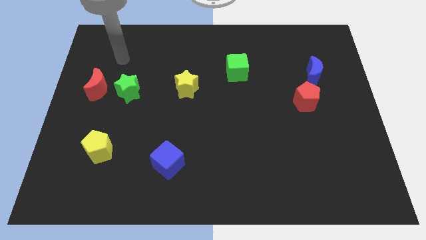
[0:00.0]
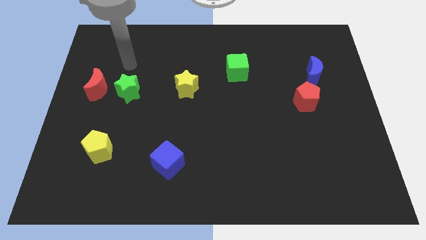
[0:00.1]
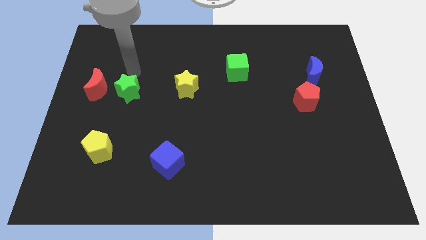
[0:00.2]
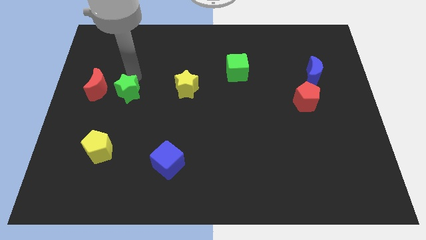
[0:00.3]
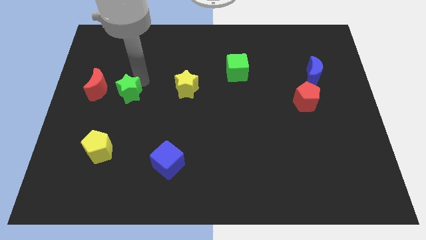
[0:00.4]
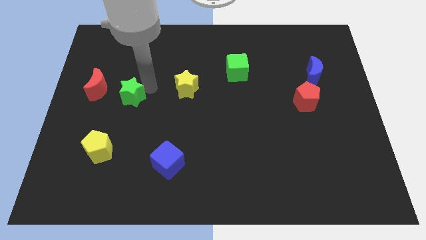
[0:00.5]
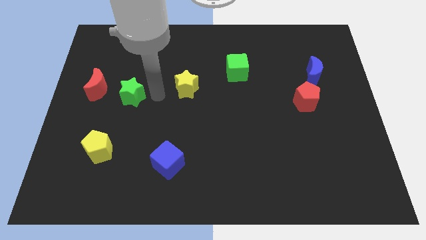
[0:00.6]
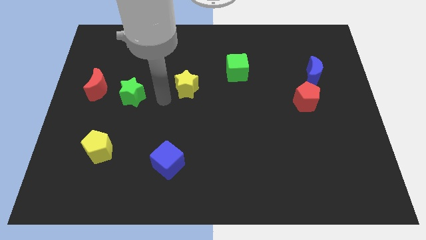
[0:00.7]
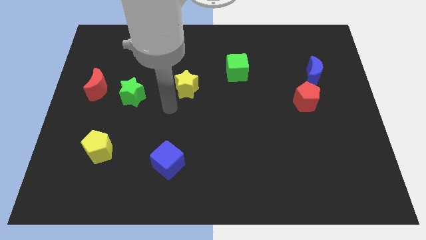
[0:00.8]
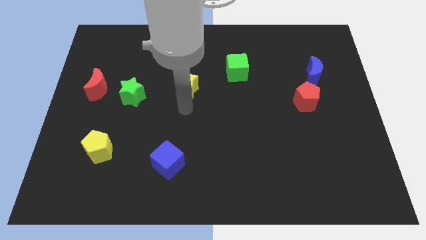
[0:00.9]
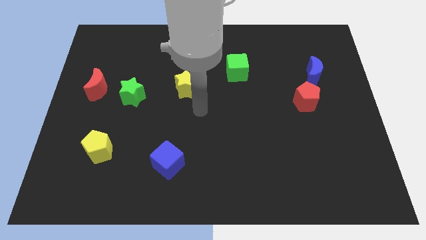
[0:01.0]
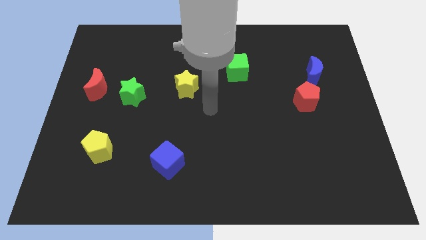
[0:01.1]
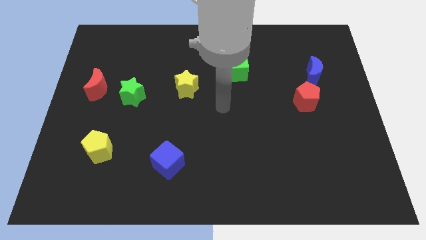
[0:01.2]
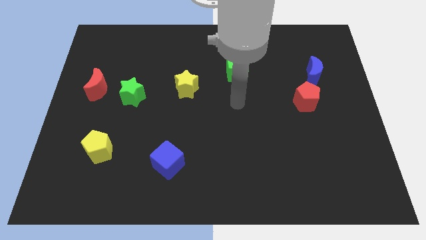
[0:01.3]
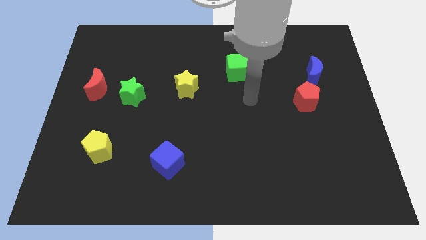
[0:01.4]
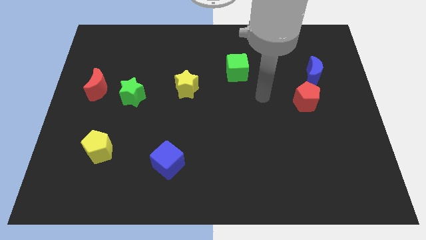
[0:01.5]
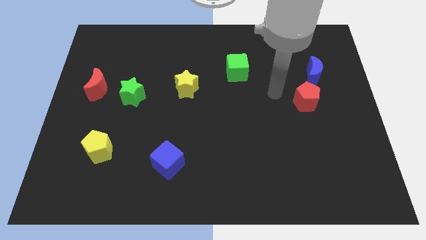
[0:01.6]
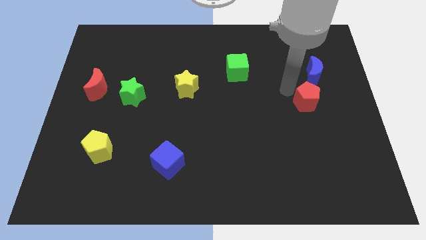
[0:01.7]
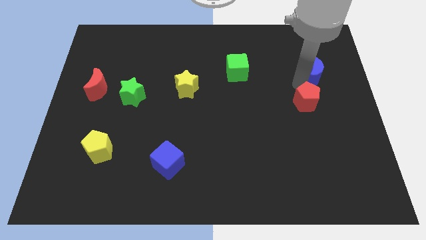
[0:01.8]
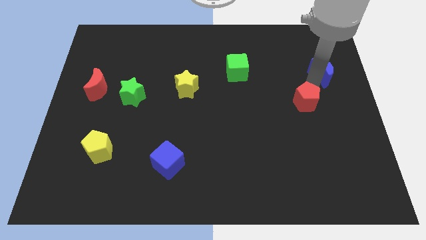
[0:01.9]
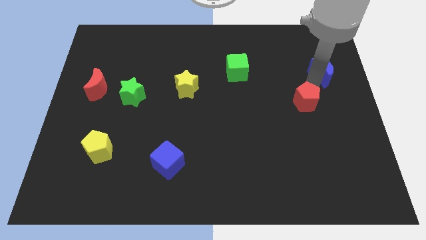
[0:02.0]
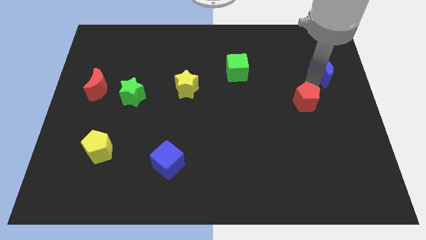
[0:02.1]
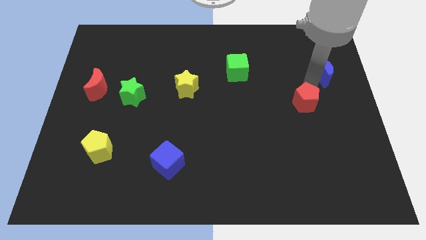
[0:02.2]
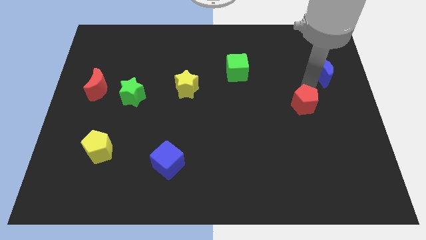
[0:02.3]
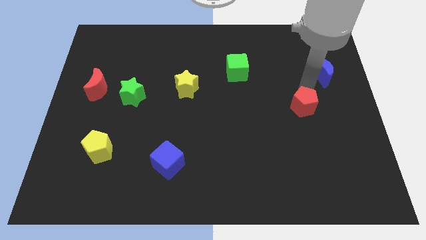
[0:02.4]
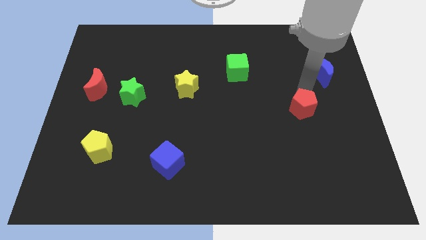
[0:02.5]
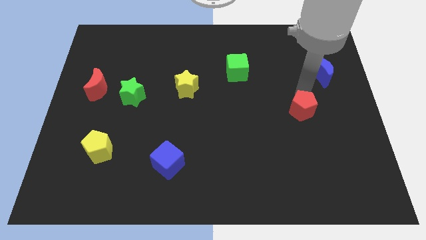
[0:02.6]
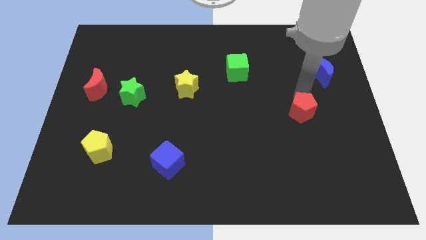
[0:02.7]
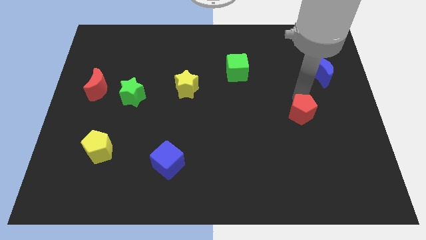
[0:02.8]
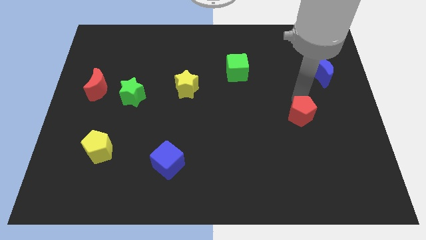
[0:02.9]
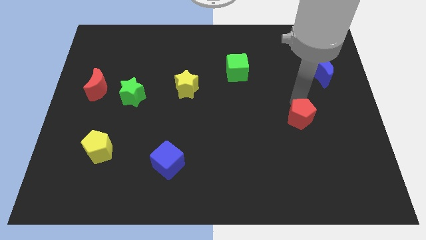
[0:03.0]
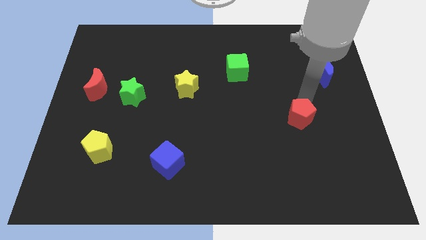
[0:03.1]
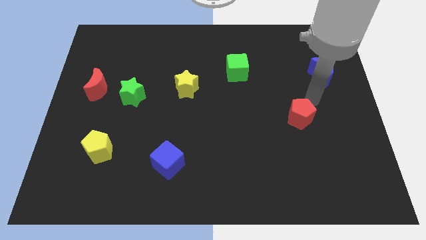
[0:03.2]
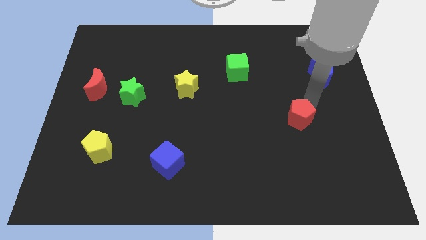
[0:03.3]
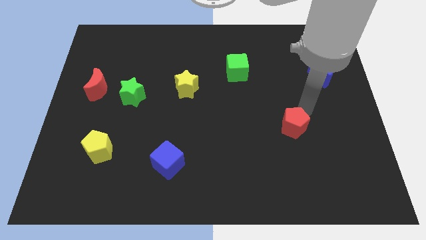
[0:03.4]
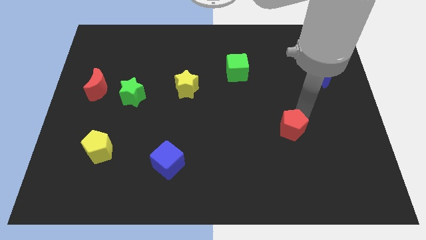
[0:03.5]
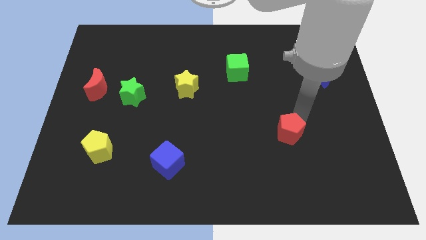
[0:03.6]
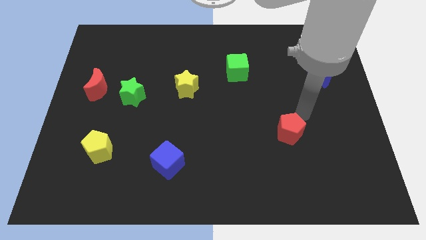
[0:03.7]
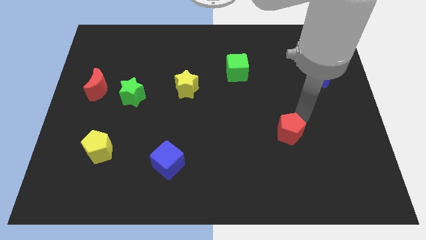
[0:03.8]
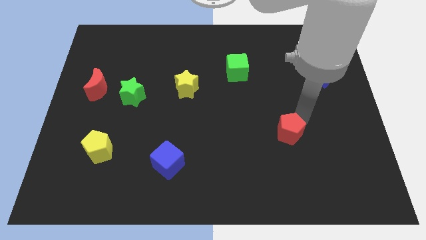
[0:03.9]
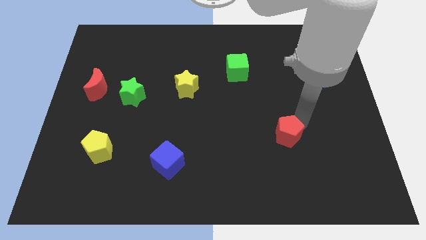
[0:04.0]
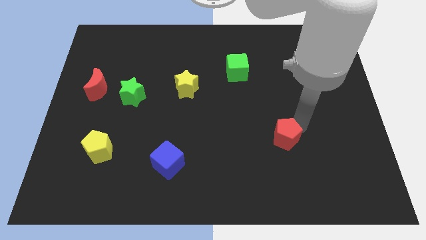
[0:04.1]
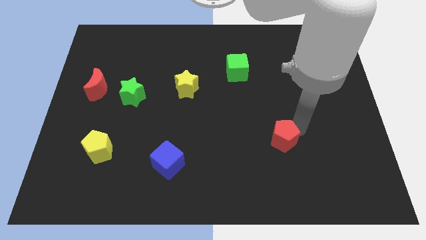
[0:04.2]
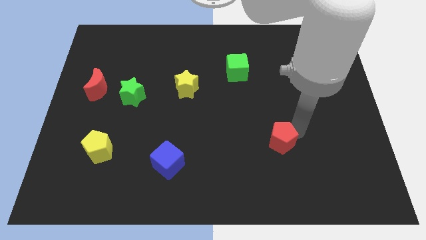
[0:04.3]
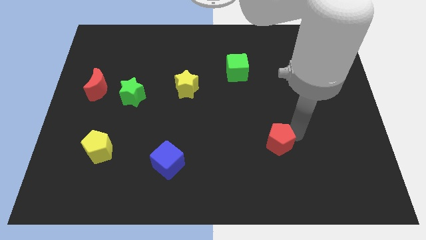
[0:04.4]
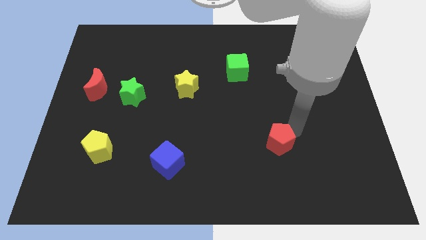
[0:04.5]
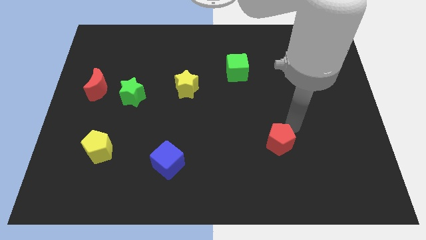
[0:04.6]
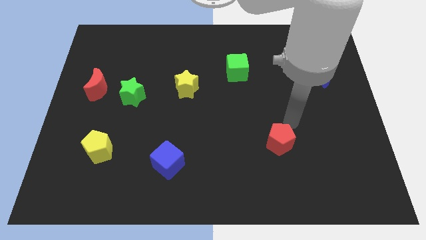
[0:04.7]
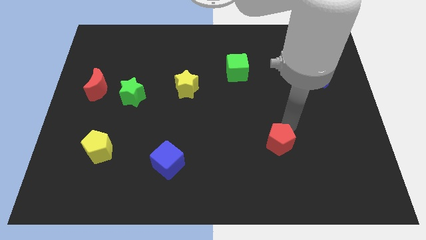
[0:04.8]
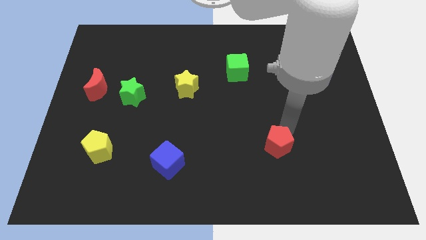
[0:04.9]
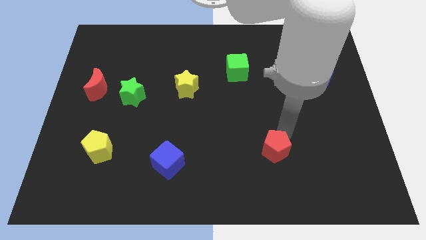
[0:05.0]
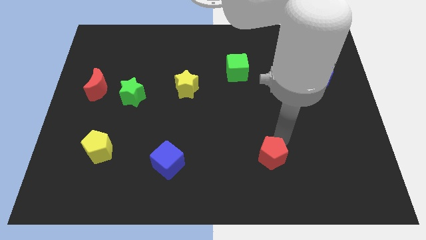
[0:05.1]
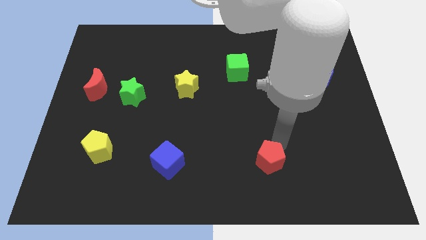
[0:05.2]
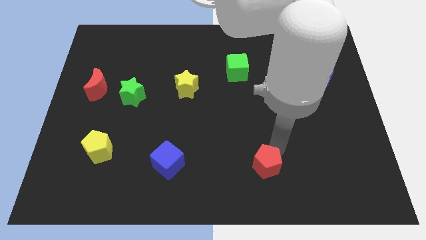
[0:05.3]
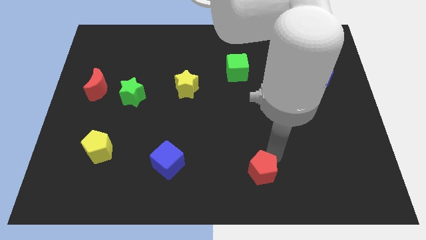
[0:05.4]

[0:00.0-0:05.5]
slide the red pentagon to the bottom side

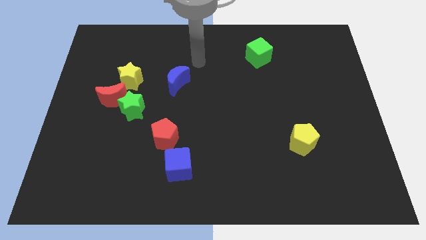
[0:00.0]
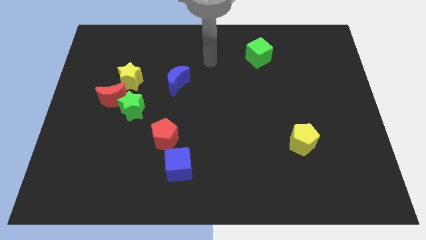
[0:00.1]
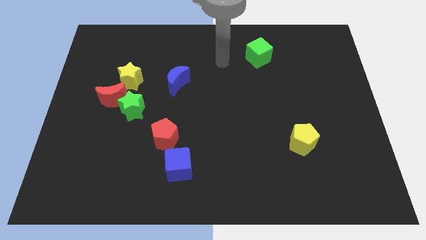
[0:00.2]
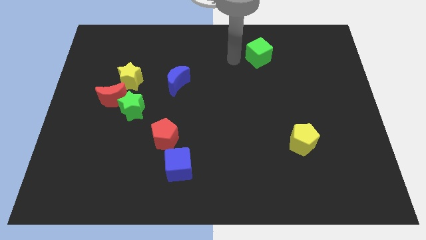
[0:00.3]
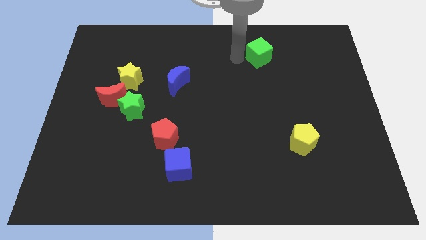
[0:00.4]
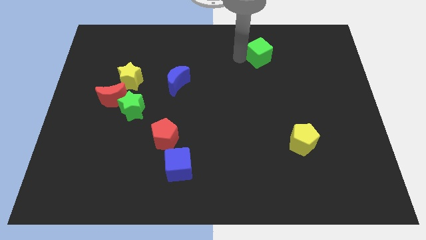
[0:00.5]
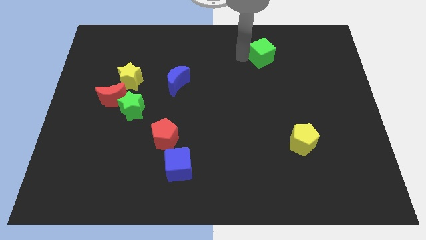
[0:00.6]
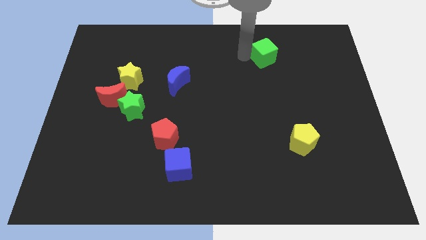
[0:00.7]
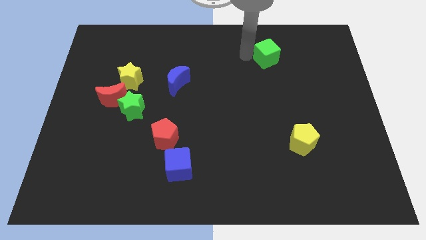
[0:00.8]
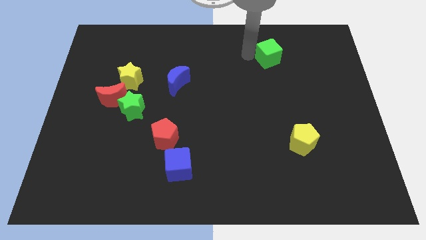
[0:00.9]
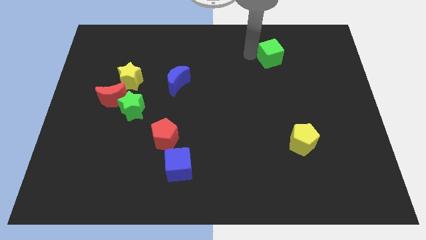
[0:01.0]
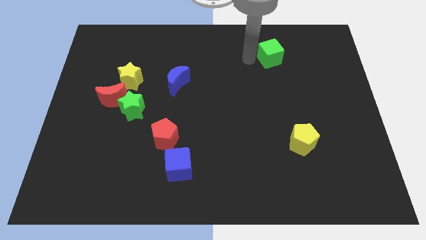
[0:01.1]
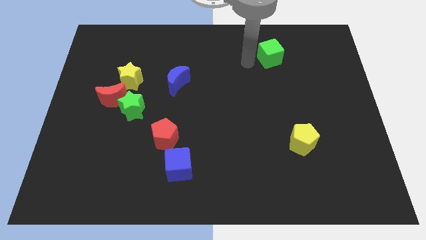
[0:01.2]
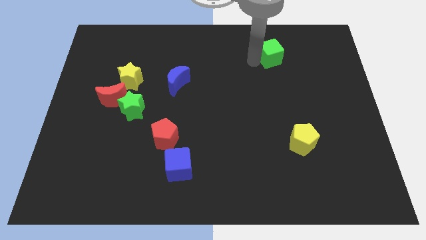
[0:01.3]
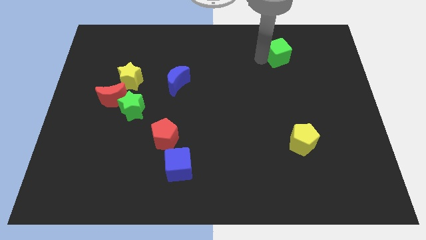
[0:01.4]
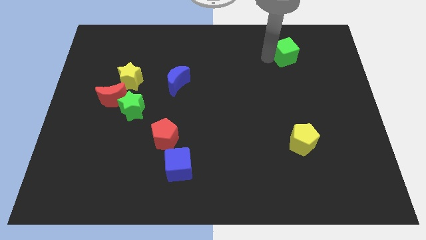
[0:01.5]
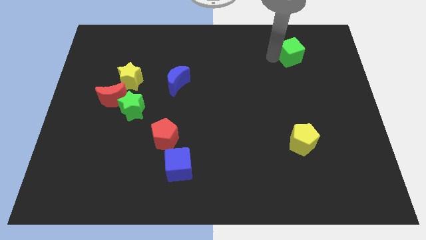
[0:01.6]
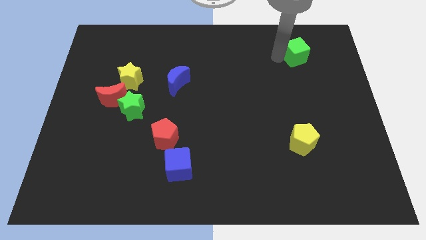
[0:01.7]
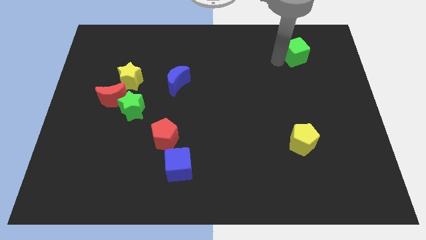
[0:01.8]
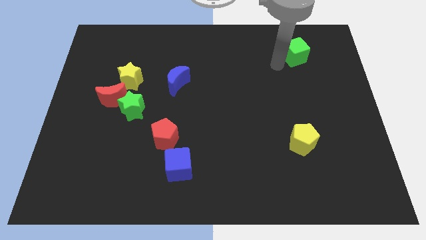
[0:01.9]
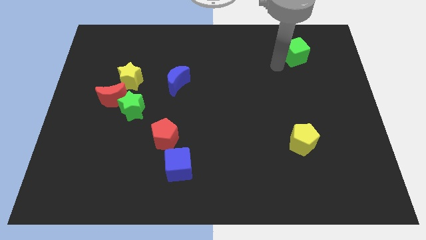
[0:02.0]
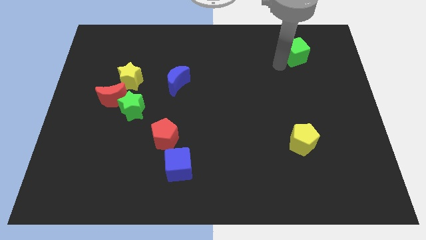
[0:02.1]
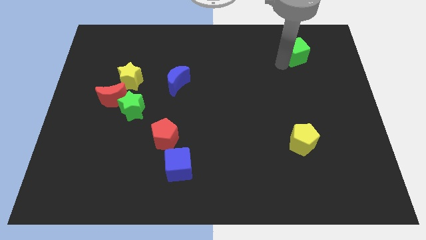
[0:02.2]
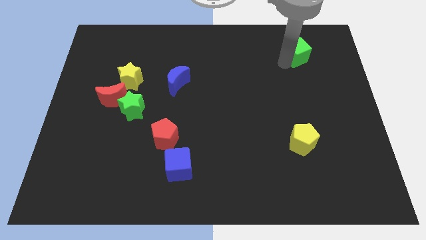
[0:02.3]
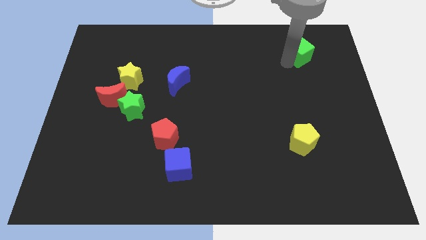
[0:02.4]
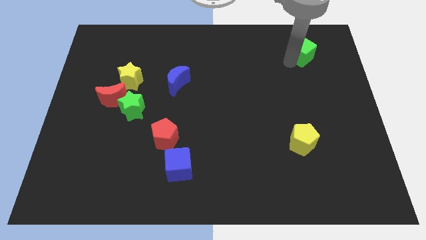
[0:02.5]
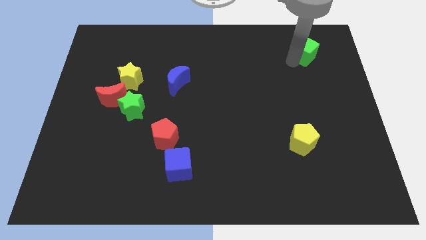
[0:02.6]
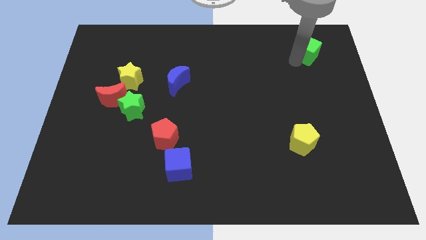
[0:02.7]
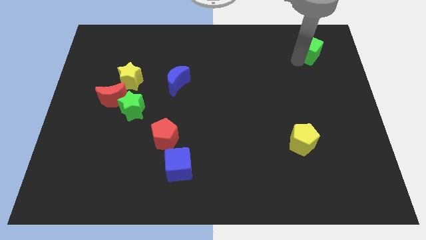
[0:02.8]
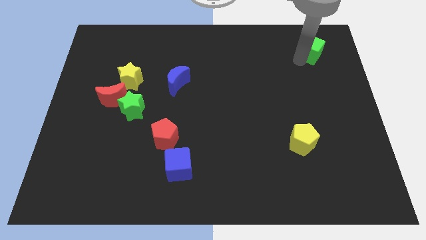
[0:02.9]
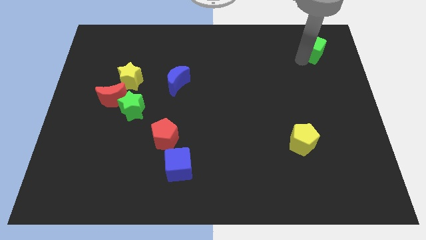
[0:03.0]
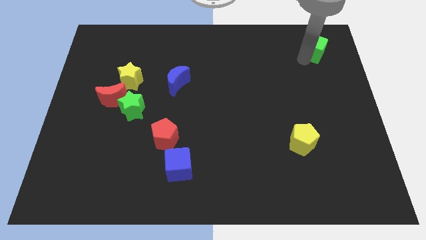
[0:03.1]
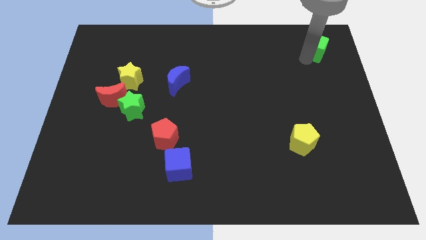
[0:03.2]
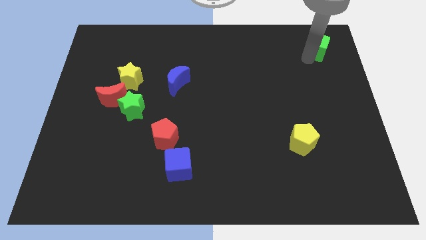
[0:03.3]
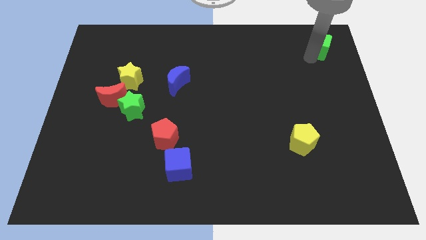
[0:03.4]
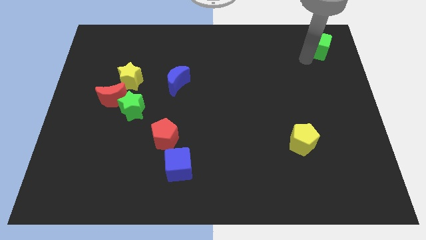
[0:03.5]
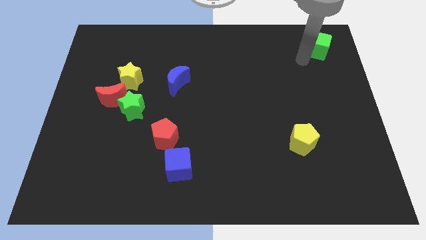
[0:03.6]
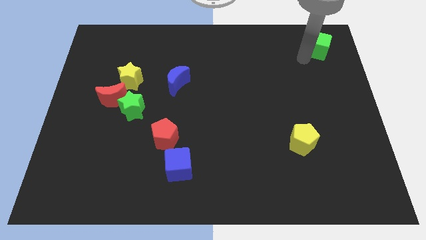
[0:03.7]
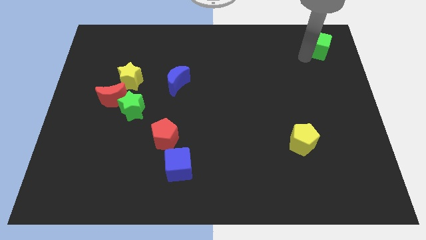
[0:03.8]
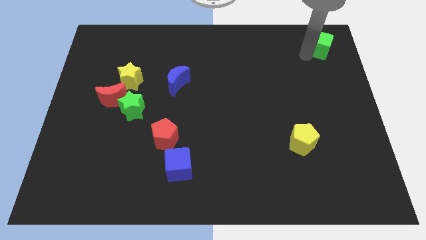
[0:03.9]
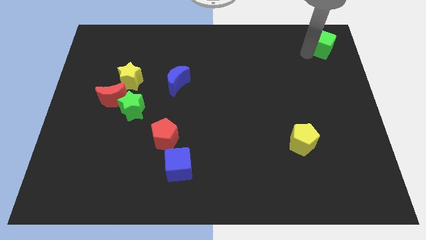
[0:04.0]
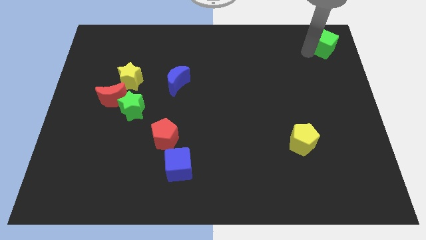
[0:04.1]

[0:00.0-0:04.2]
slide the green cube to the upper right corner
